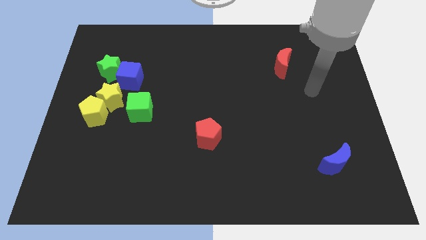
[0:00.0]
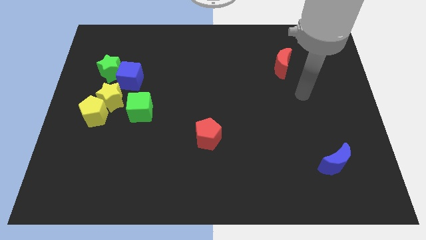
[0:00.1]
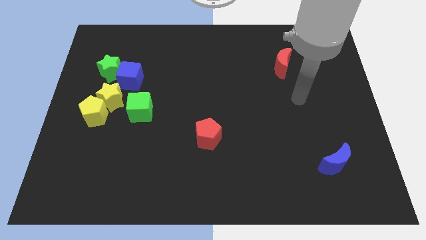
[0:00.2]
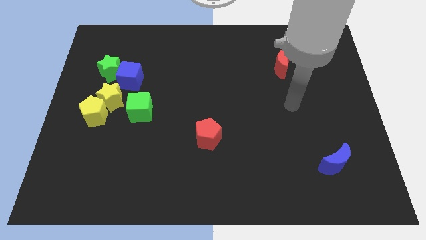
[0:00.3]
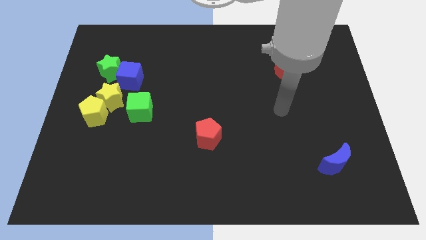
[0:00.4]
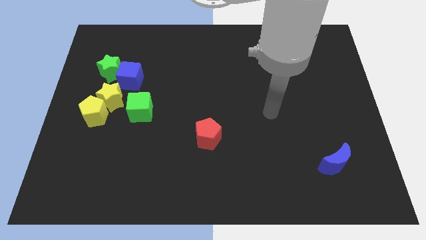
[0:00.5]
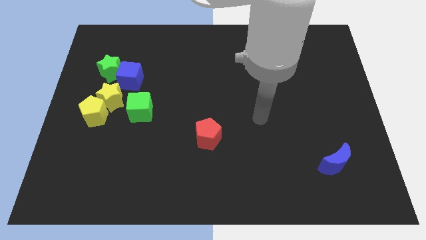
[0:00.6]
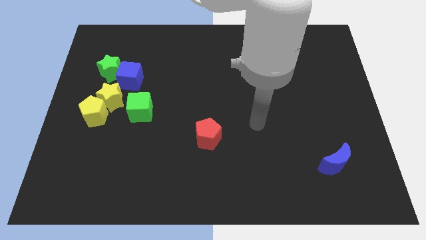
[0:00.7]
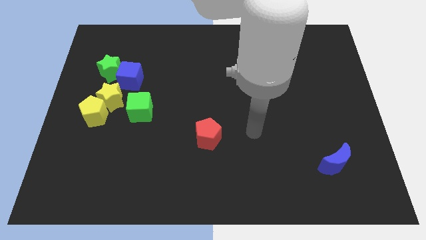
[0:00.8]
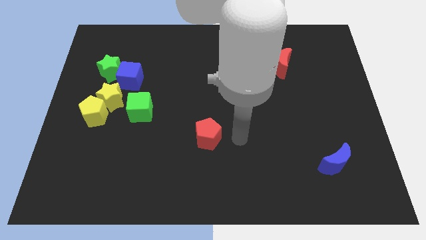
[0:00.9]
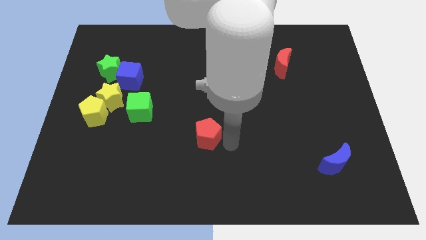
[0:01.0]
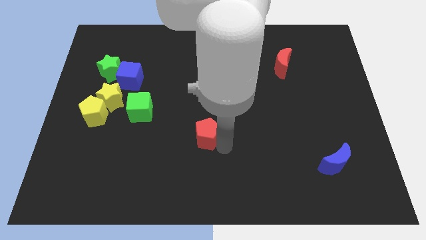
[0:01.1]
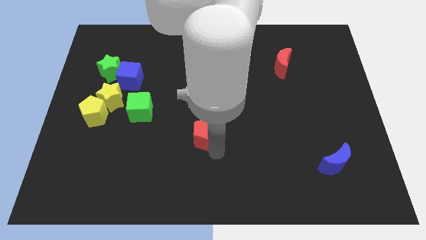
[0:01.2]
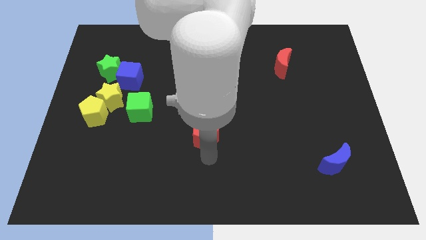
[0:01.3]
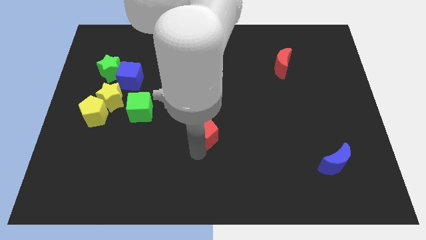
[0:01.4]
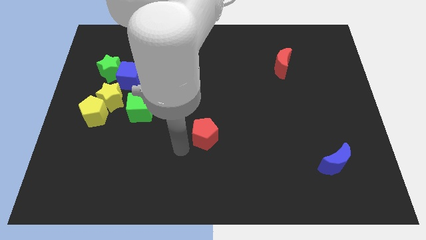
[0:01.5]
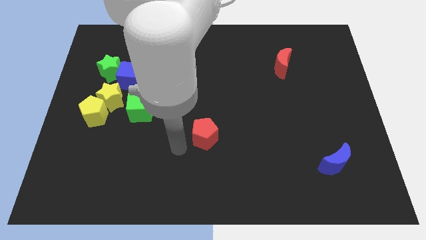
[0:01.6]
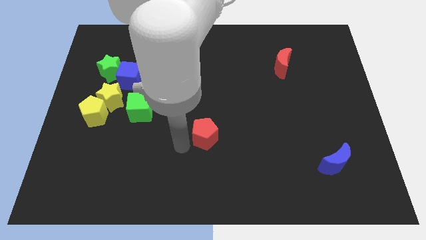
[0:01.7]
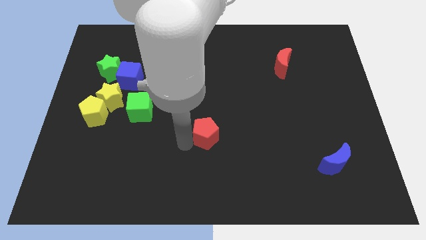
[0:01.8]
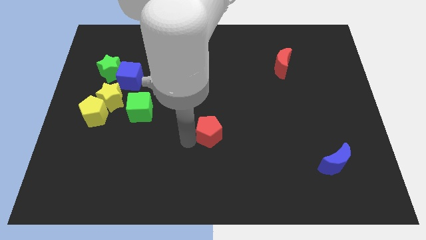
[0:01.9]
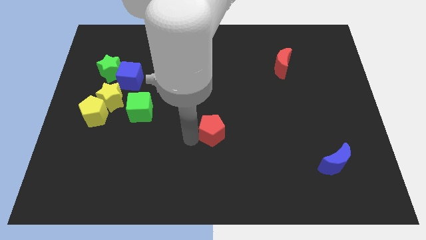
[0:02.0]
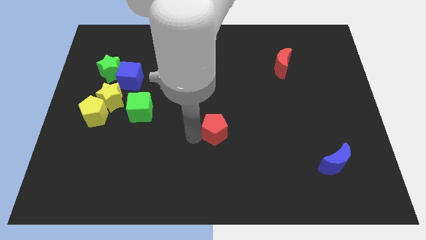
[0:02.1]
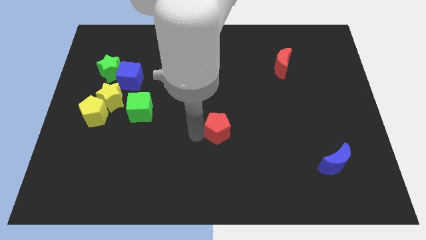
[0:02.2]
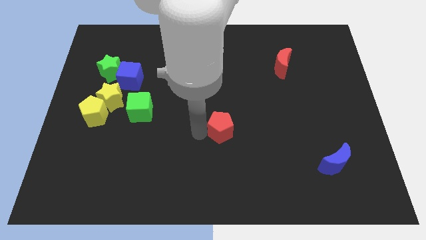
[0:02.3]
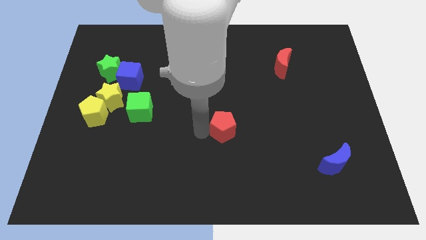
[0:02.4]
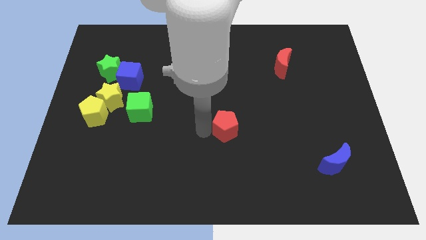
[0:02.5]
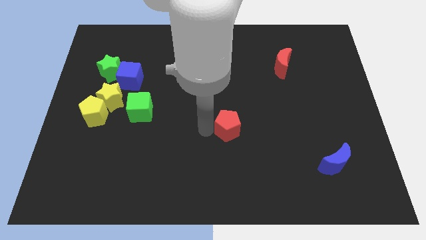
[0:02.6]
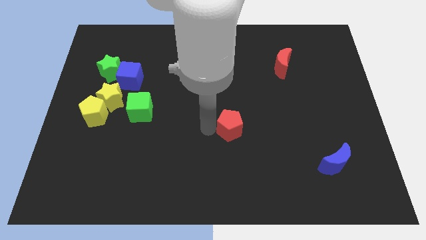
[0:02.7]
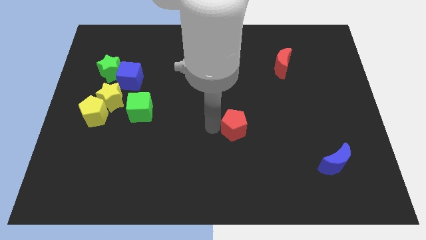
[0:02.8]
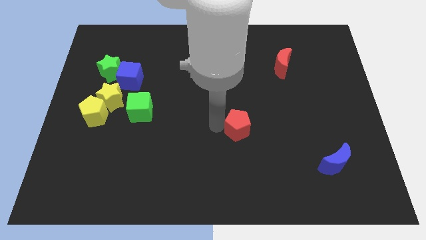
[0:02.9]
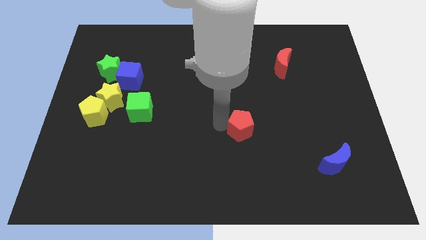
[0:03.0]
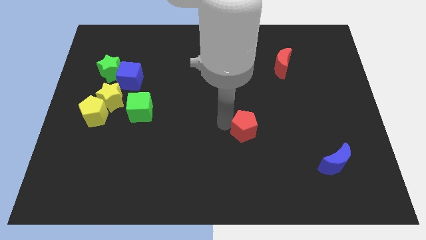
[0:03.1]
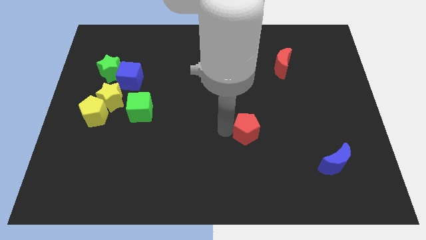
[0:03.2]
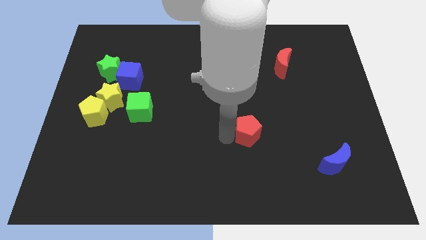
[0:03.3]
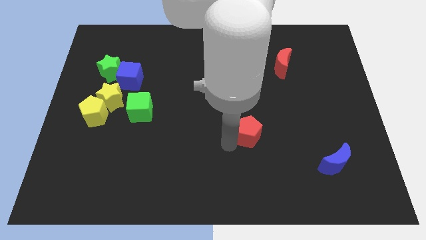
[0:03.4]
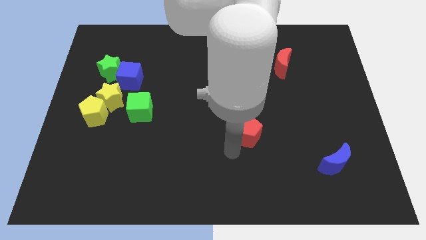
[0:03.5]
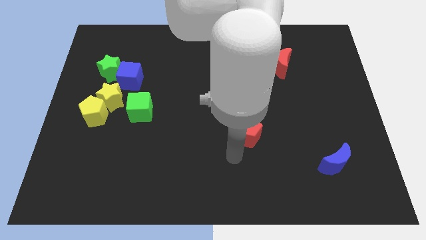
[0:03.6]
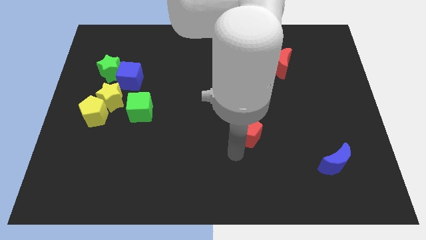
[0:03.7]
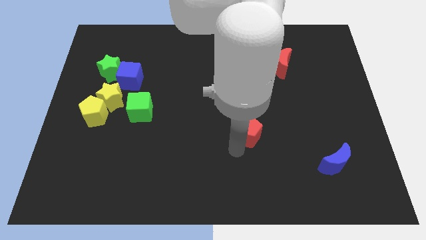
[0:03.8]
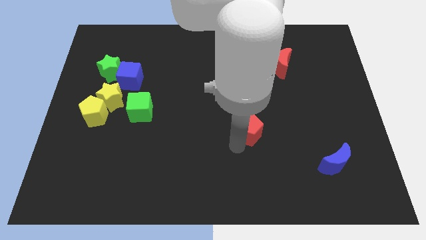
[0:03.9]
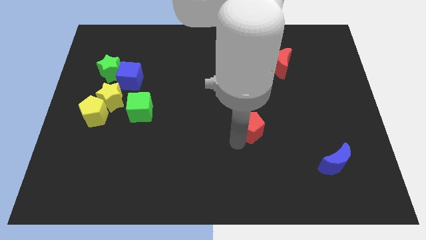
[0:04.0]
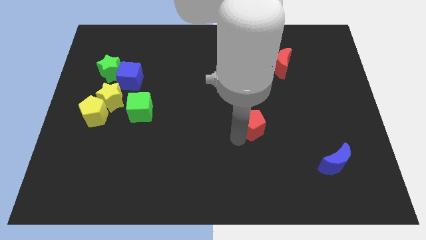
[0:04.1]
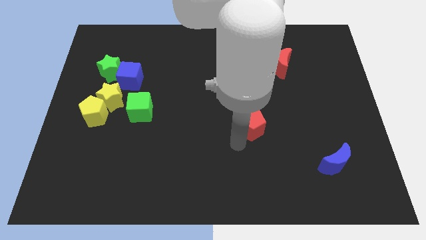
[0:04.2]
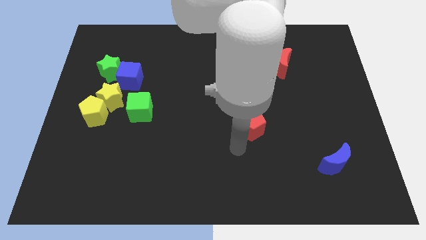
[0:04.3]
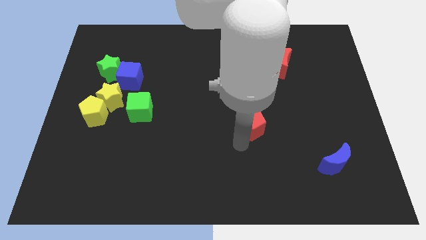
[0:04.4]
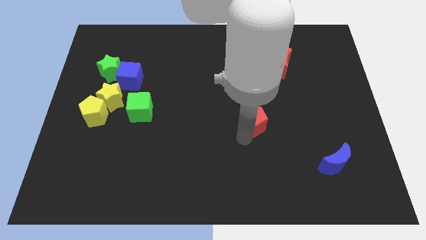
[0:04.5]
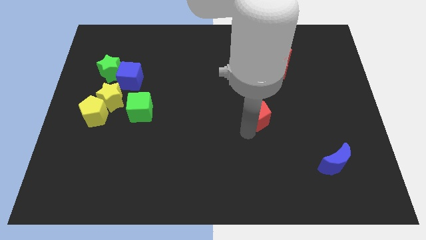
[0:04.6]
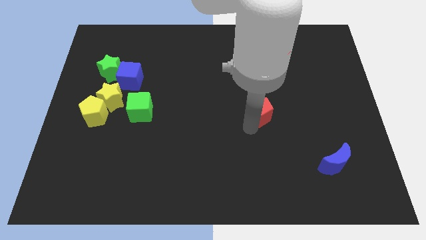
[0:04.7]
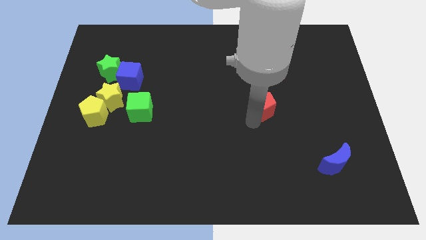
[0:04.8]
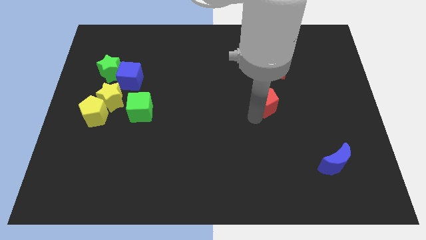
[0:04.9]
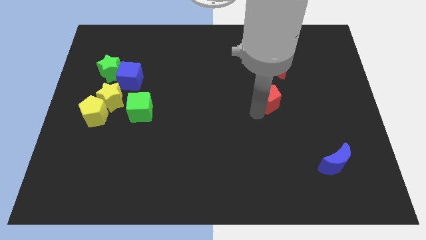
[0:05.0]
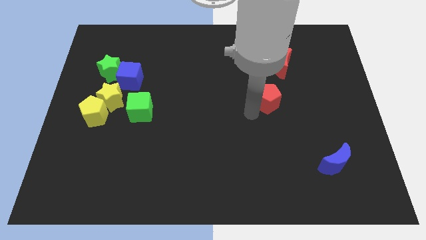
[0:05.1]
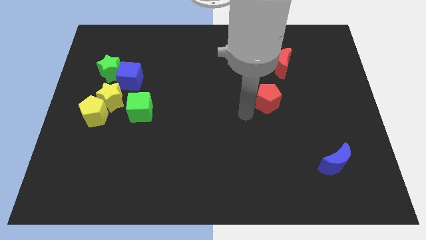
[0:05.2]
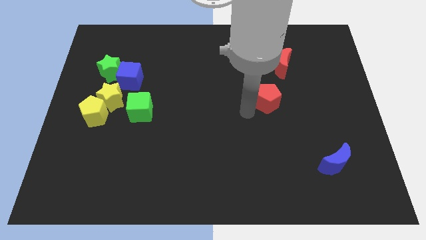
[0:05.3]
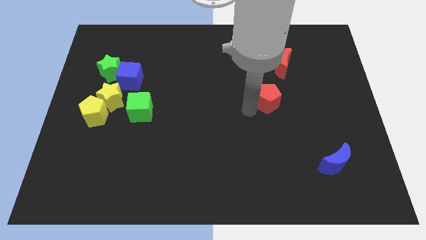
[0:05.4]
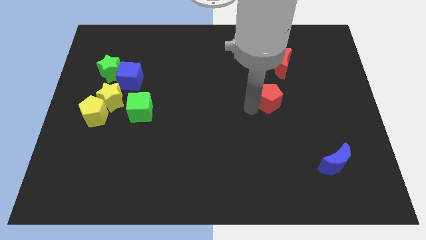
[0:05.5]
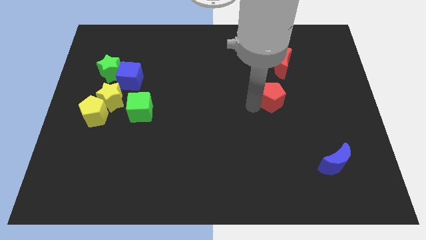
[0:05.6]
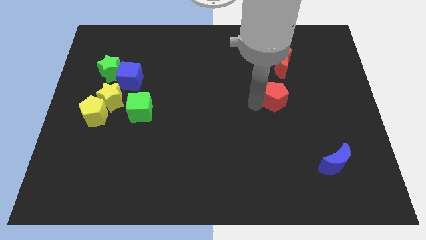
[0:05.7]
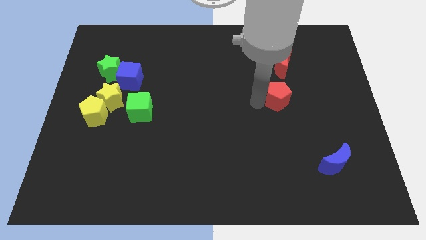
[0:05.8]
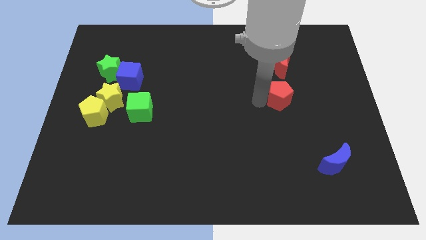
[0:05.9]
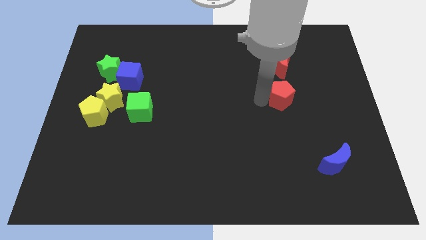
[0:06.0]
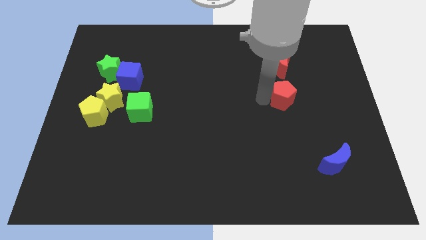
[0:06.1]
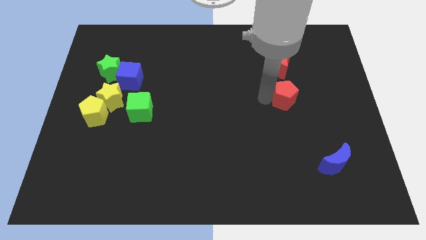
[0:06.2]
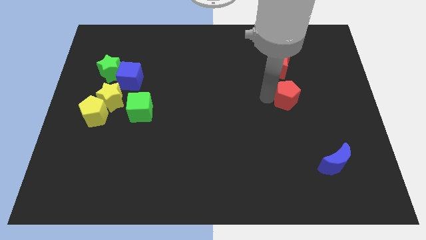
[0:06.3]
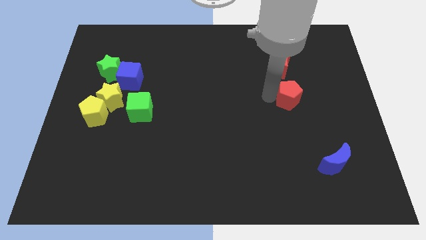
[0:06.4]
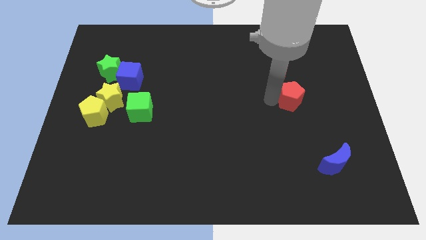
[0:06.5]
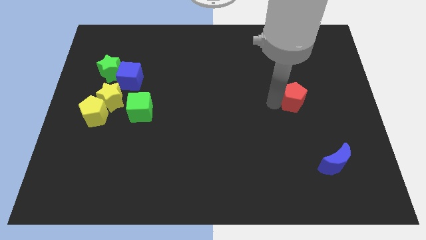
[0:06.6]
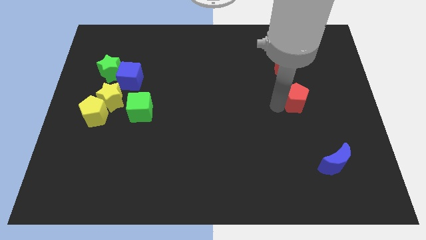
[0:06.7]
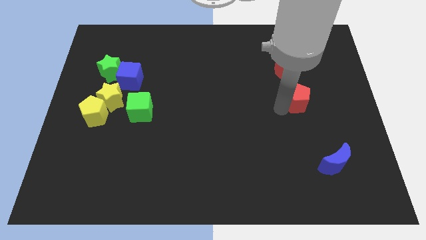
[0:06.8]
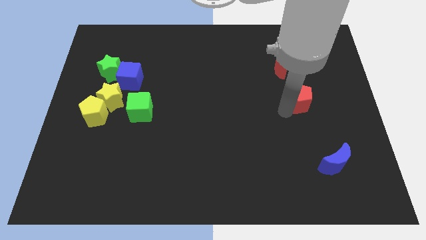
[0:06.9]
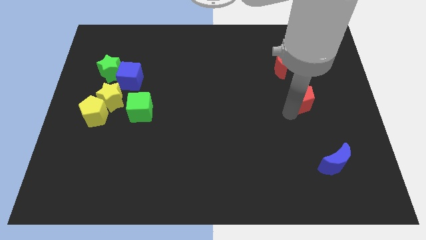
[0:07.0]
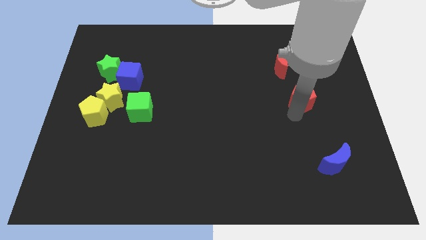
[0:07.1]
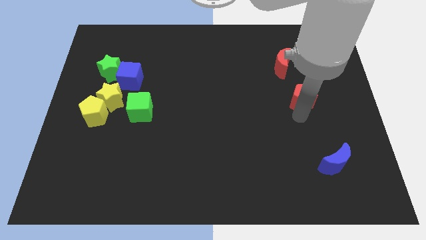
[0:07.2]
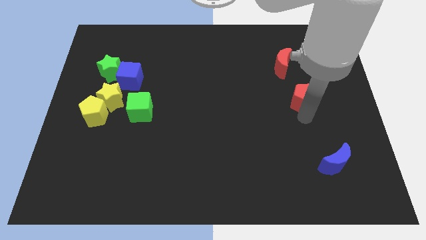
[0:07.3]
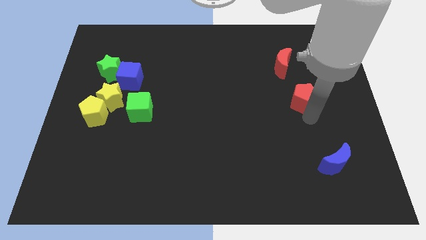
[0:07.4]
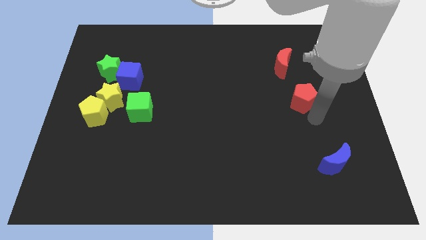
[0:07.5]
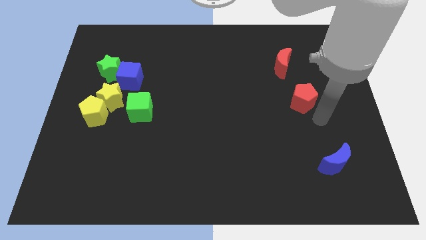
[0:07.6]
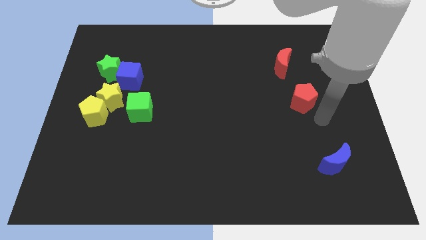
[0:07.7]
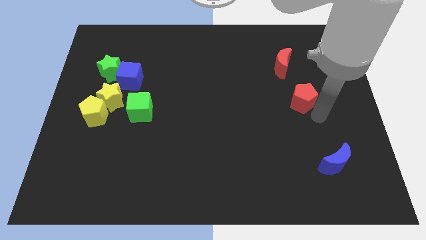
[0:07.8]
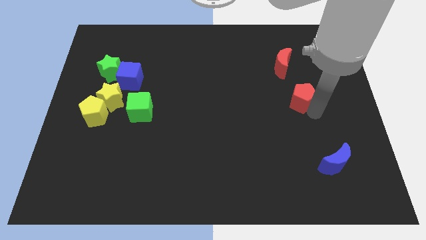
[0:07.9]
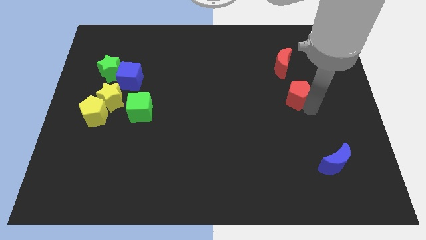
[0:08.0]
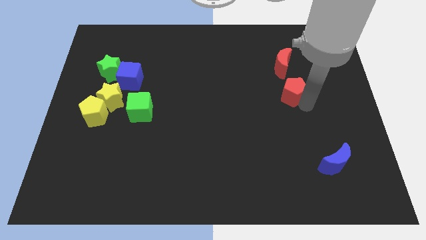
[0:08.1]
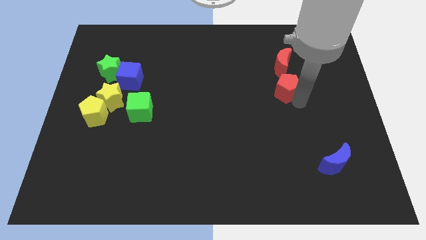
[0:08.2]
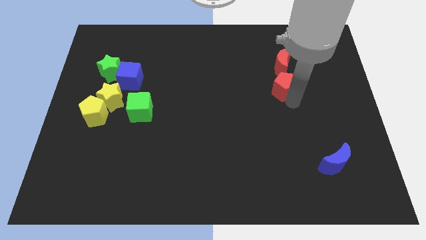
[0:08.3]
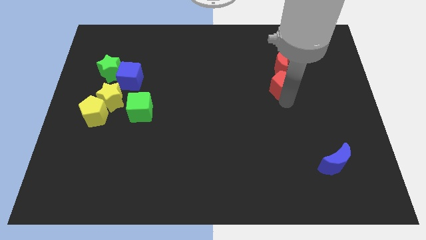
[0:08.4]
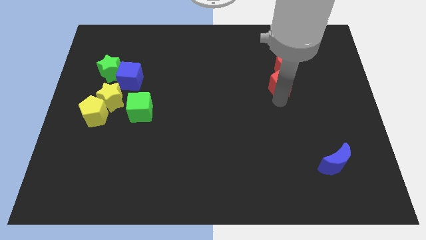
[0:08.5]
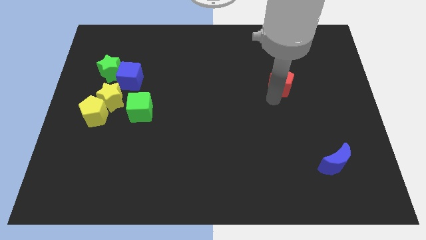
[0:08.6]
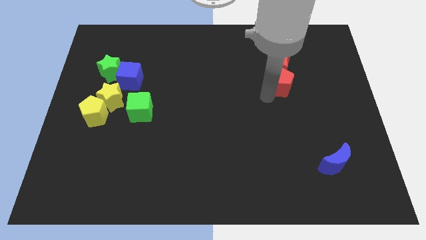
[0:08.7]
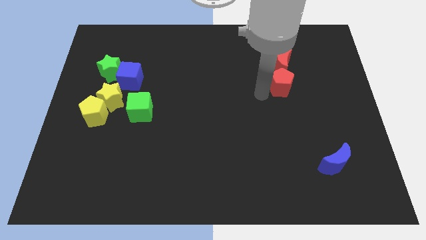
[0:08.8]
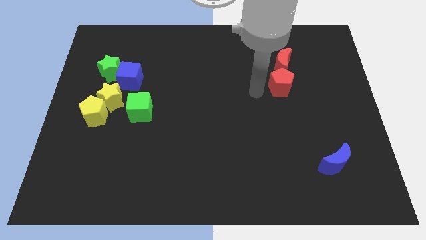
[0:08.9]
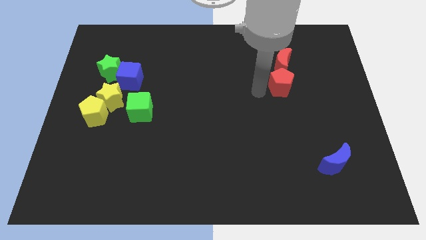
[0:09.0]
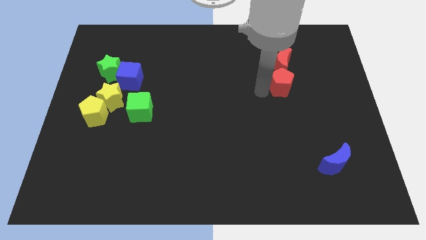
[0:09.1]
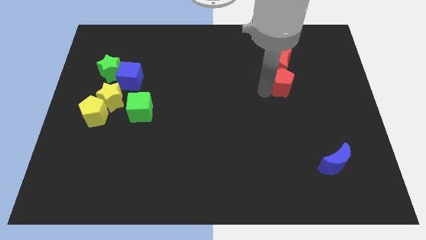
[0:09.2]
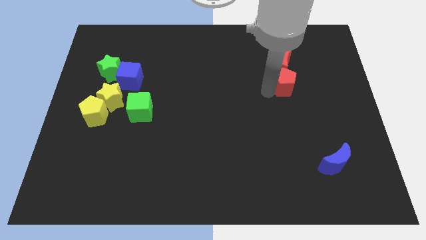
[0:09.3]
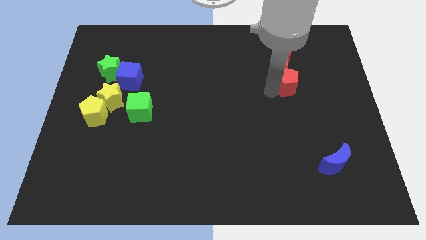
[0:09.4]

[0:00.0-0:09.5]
move the red pentagon to the bottom right side of the red moon
